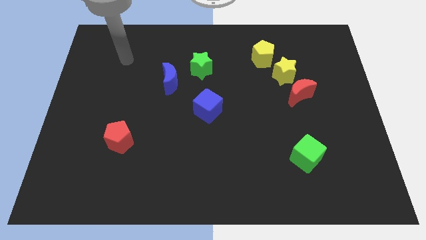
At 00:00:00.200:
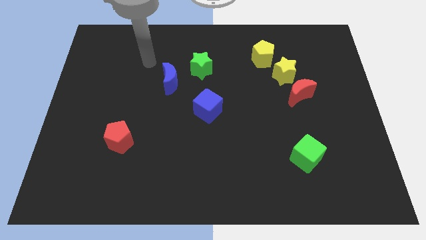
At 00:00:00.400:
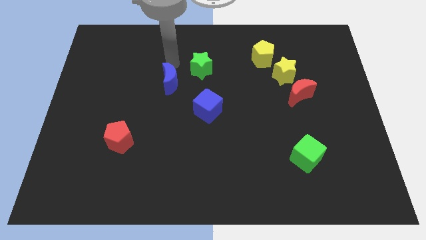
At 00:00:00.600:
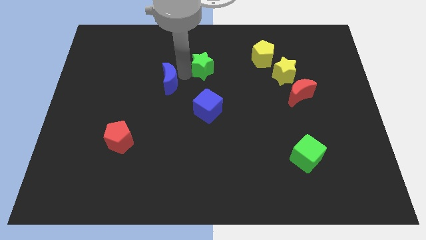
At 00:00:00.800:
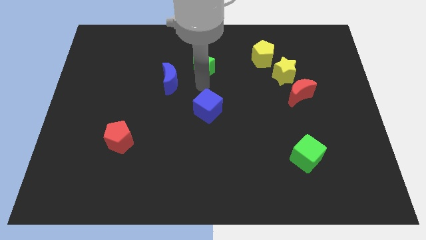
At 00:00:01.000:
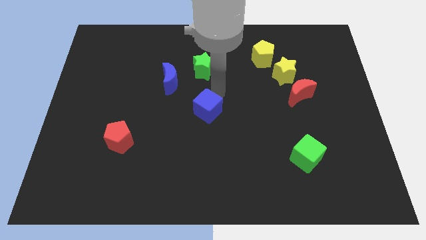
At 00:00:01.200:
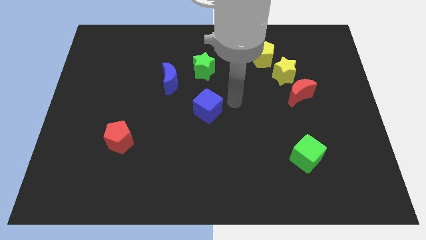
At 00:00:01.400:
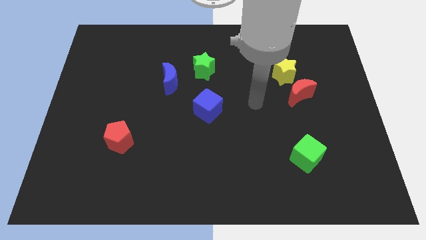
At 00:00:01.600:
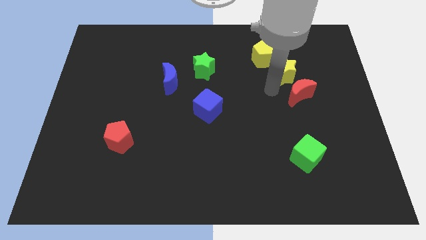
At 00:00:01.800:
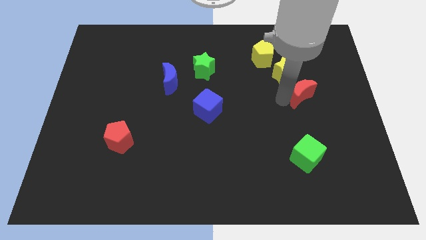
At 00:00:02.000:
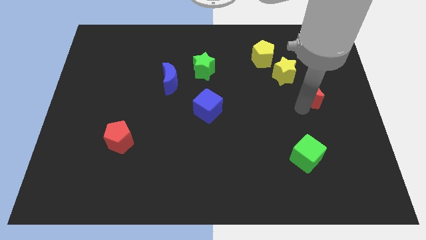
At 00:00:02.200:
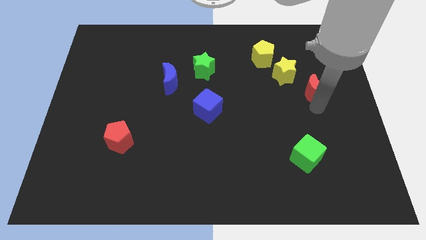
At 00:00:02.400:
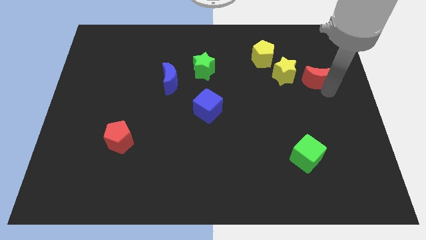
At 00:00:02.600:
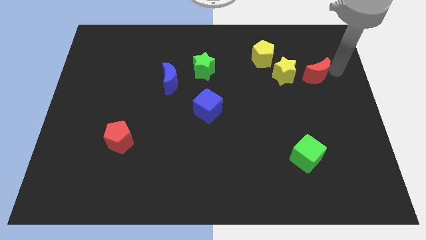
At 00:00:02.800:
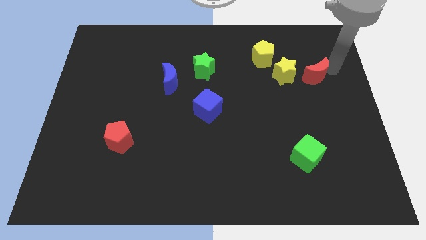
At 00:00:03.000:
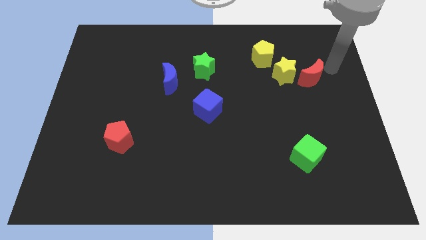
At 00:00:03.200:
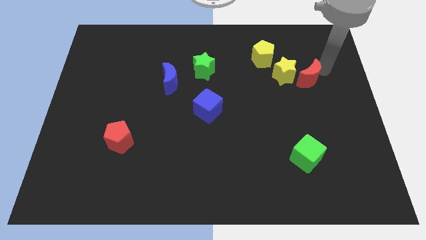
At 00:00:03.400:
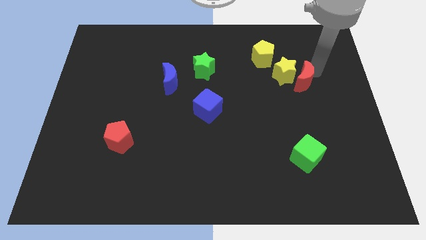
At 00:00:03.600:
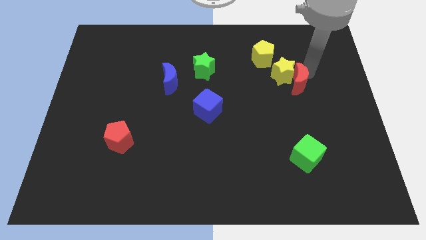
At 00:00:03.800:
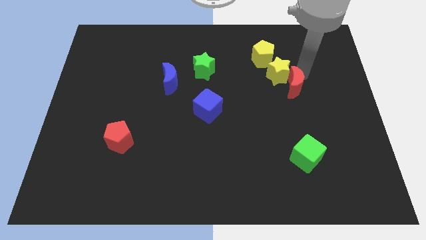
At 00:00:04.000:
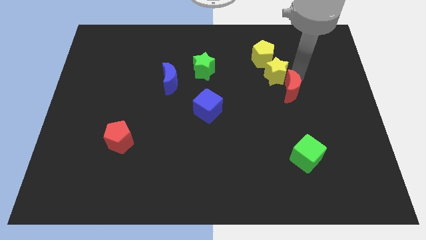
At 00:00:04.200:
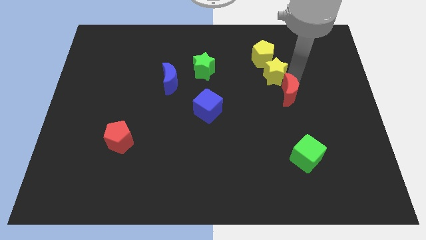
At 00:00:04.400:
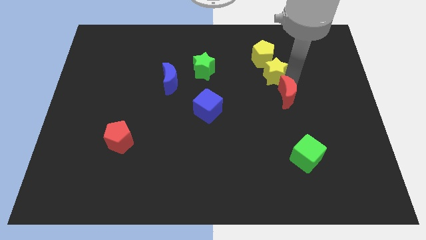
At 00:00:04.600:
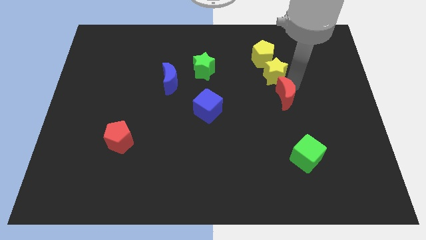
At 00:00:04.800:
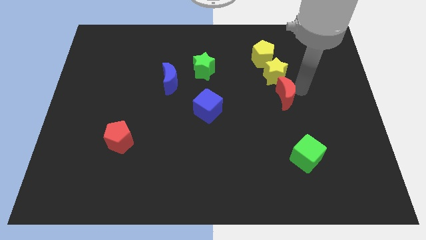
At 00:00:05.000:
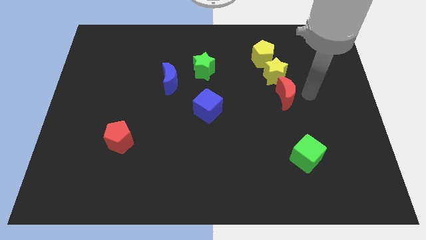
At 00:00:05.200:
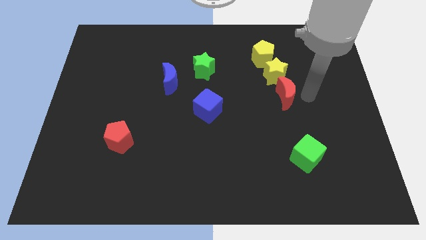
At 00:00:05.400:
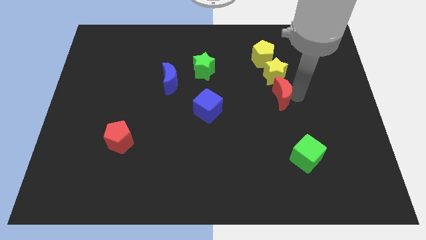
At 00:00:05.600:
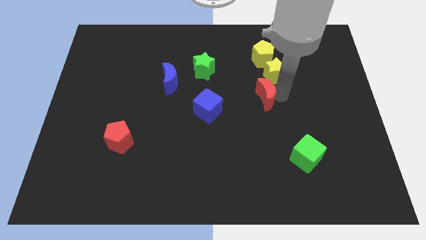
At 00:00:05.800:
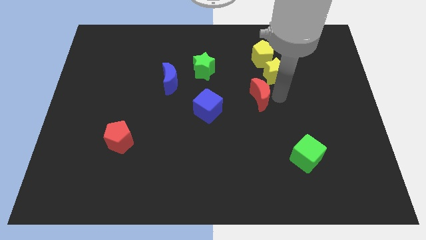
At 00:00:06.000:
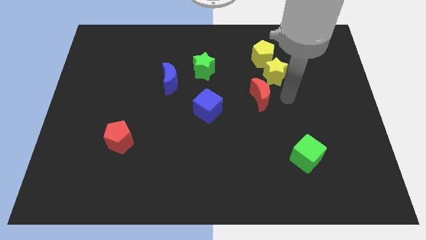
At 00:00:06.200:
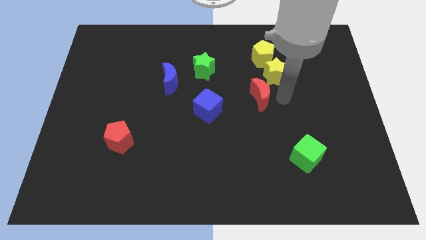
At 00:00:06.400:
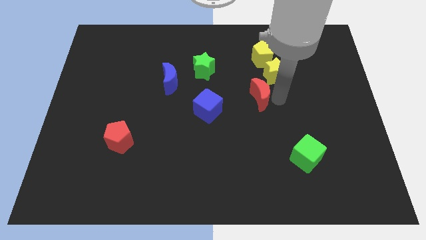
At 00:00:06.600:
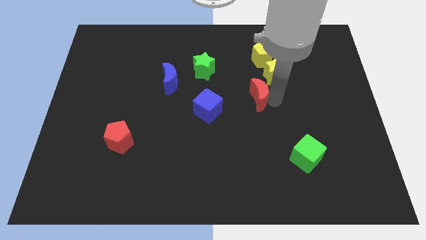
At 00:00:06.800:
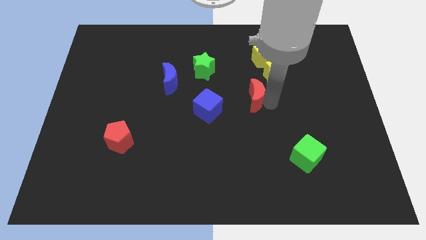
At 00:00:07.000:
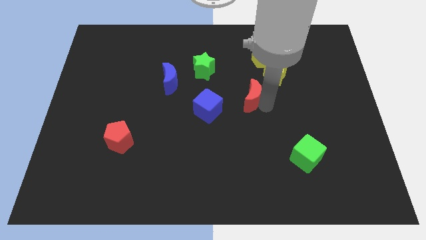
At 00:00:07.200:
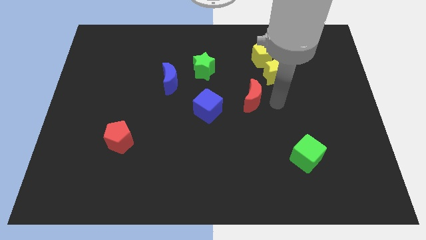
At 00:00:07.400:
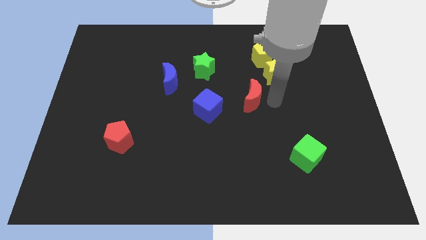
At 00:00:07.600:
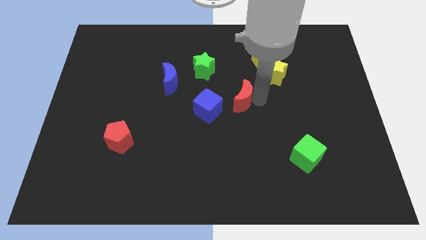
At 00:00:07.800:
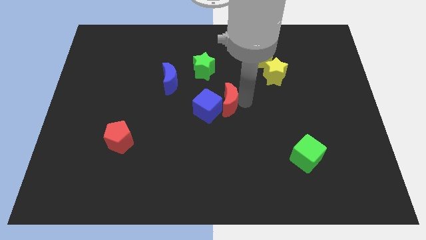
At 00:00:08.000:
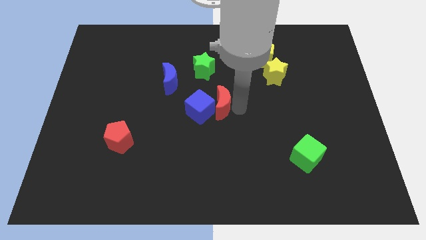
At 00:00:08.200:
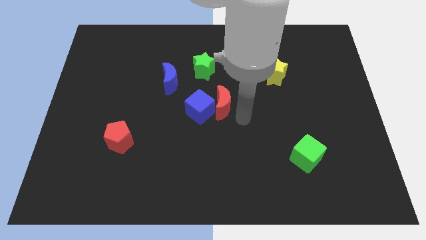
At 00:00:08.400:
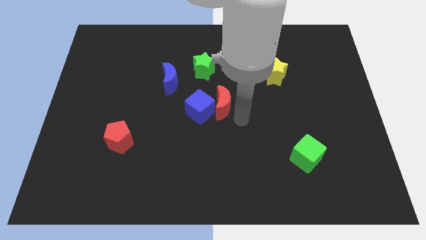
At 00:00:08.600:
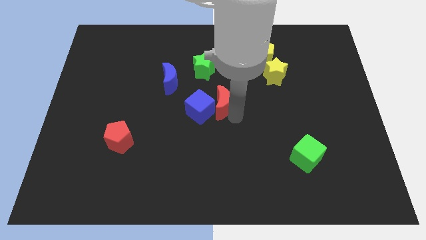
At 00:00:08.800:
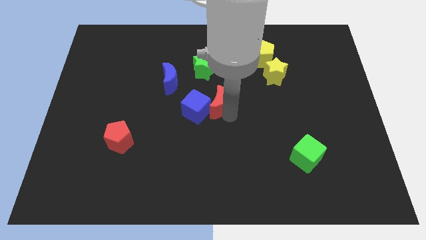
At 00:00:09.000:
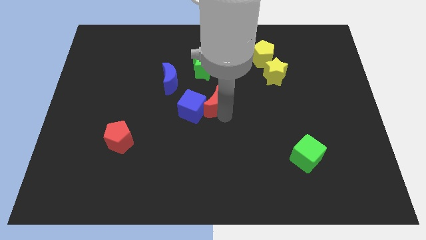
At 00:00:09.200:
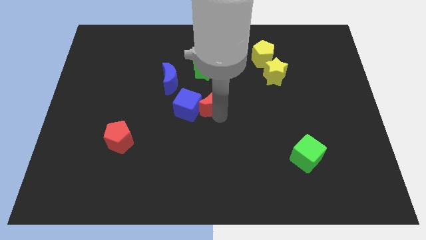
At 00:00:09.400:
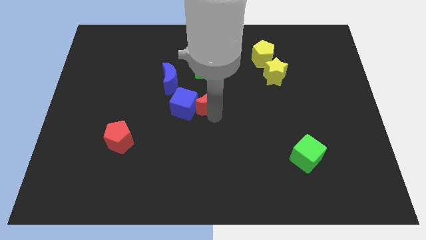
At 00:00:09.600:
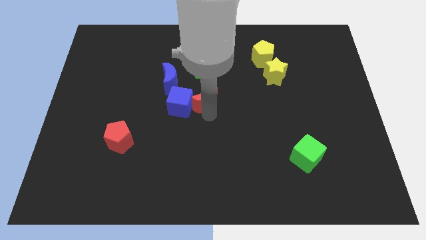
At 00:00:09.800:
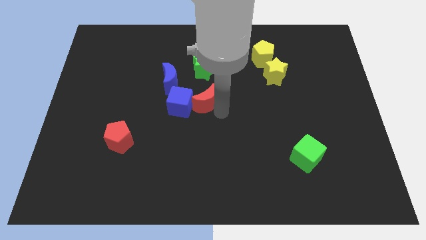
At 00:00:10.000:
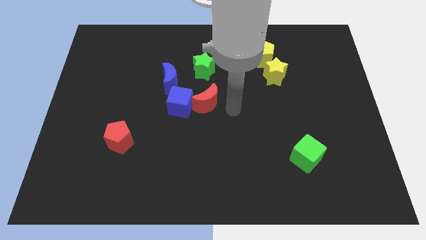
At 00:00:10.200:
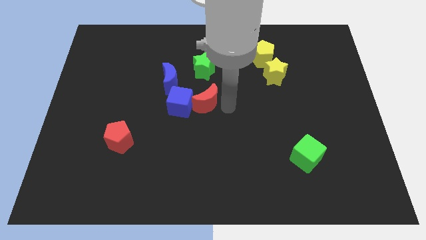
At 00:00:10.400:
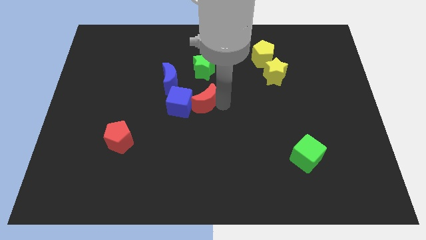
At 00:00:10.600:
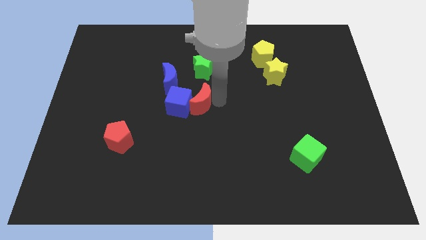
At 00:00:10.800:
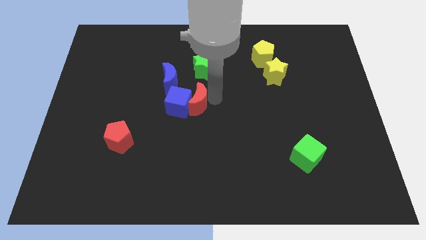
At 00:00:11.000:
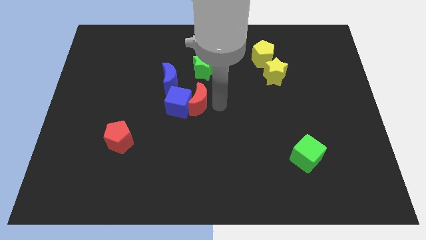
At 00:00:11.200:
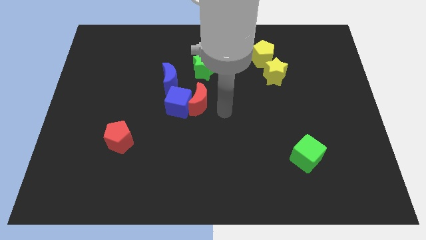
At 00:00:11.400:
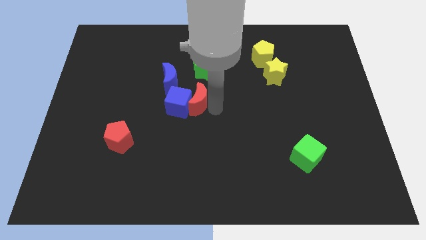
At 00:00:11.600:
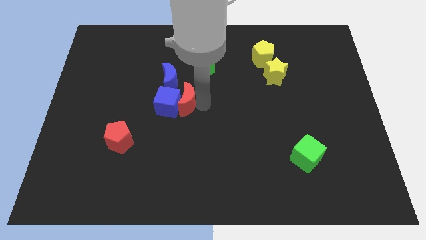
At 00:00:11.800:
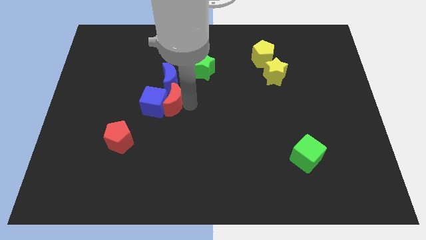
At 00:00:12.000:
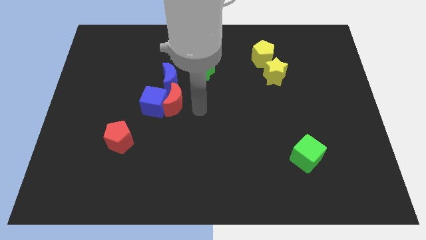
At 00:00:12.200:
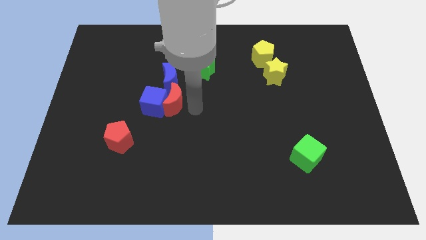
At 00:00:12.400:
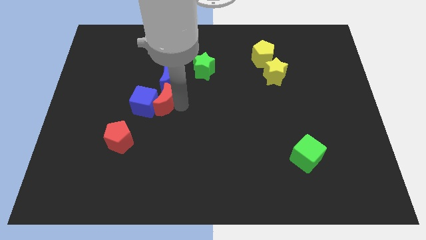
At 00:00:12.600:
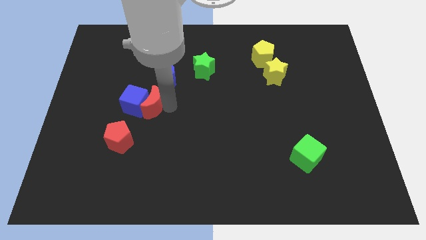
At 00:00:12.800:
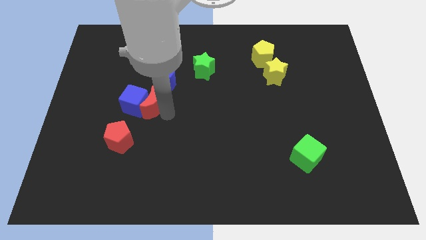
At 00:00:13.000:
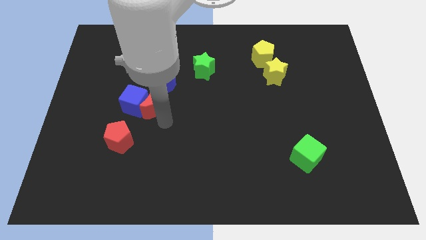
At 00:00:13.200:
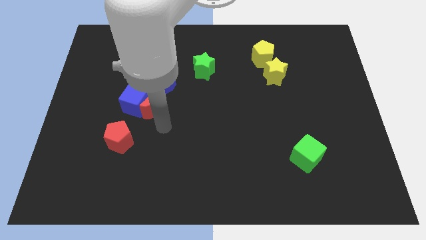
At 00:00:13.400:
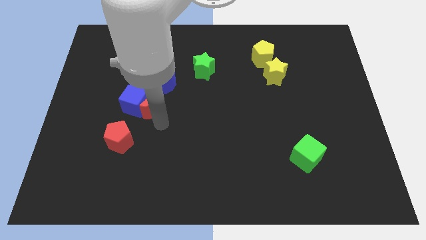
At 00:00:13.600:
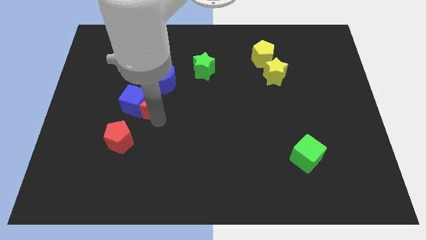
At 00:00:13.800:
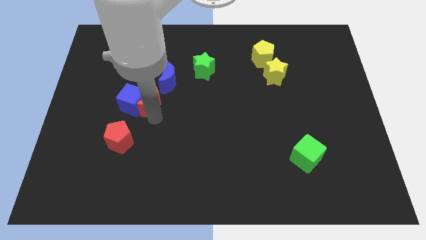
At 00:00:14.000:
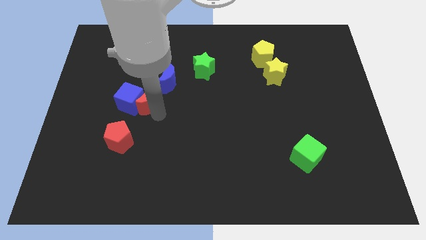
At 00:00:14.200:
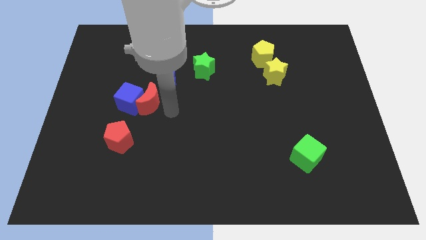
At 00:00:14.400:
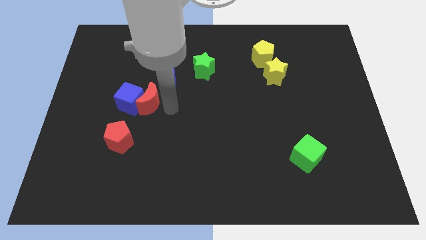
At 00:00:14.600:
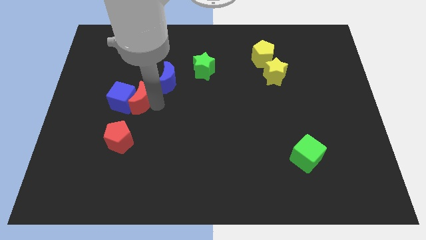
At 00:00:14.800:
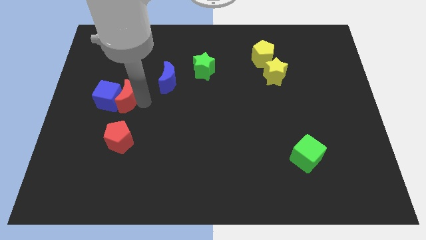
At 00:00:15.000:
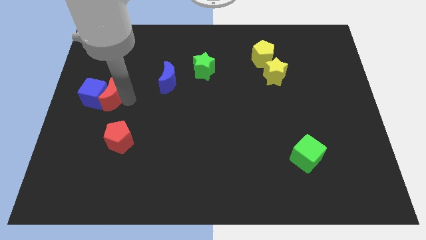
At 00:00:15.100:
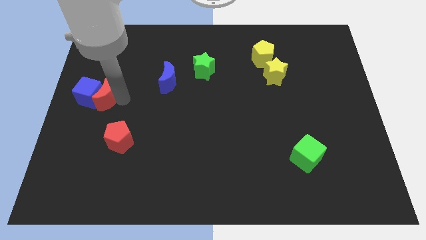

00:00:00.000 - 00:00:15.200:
move the red moon to the left side

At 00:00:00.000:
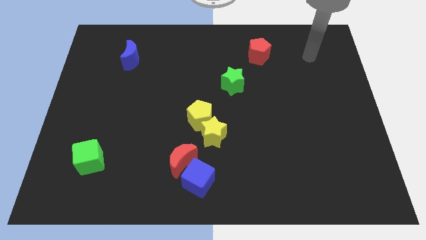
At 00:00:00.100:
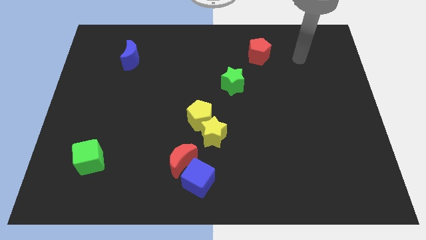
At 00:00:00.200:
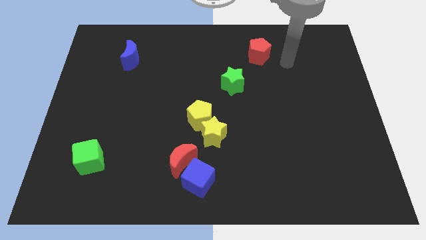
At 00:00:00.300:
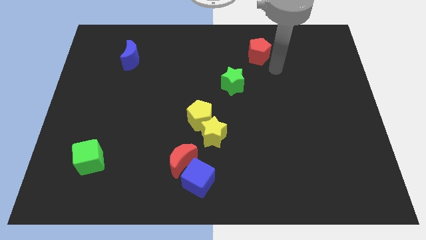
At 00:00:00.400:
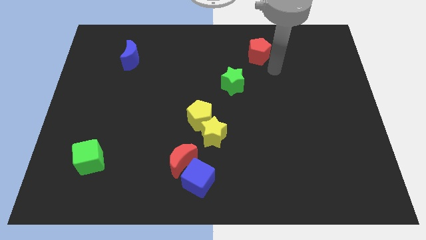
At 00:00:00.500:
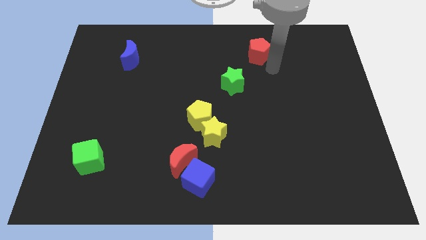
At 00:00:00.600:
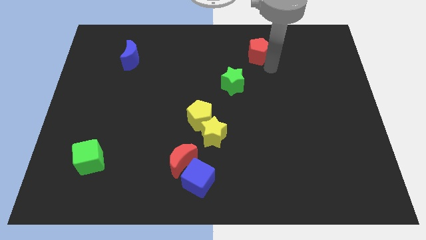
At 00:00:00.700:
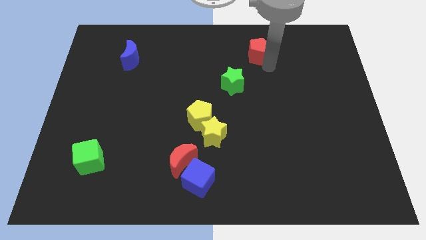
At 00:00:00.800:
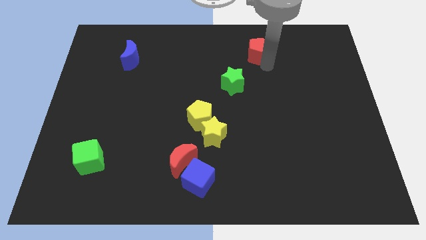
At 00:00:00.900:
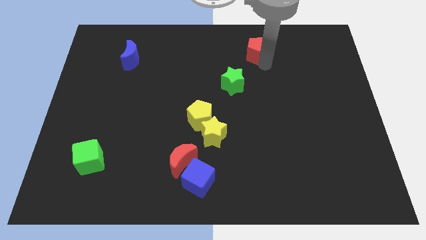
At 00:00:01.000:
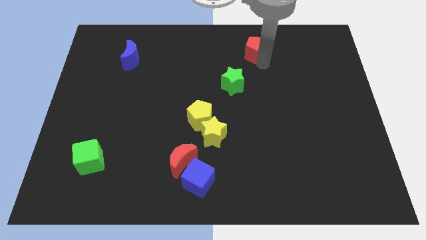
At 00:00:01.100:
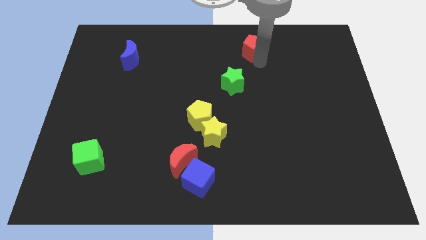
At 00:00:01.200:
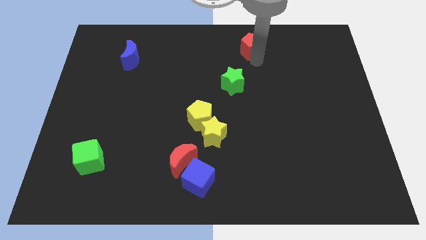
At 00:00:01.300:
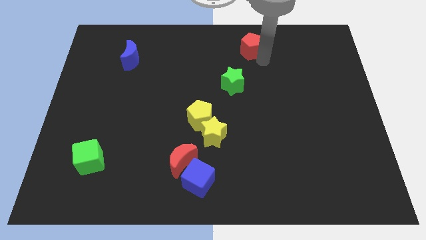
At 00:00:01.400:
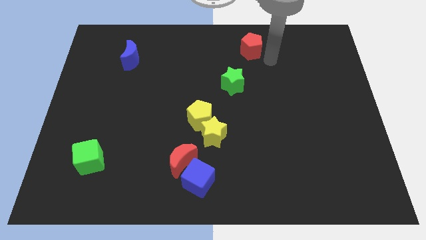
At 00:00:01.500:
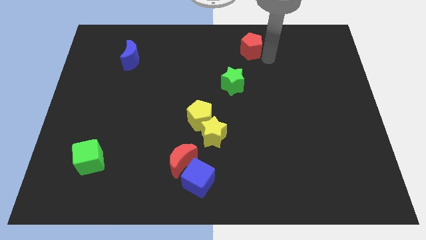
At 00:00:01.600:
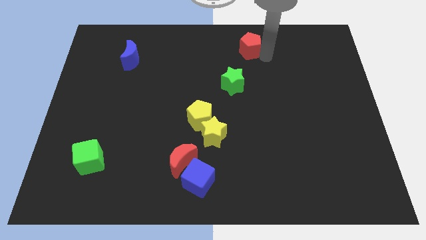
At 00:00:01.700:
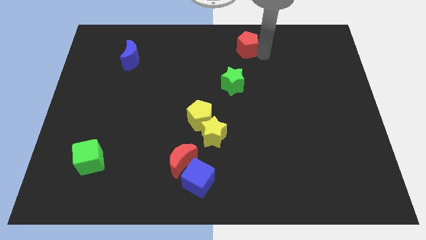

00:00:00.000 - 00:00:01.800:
push the red pentagon to the towards your base
